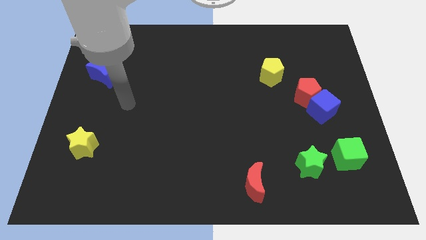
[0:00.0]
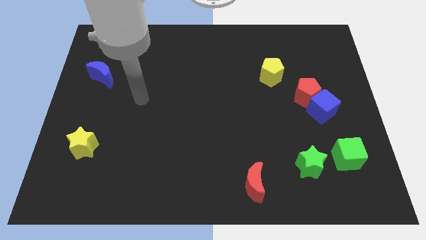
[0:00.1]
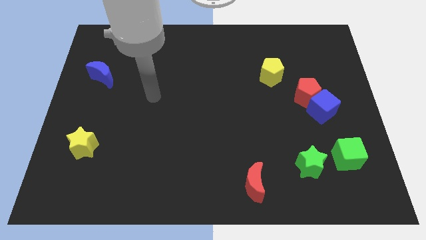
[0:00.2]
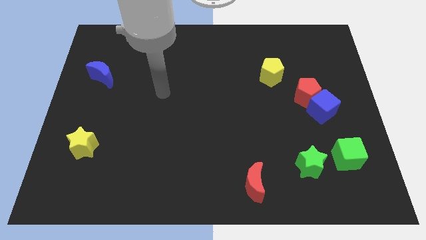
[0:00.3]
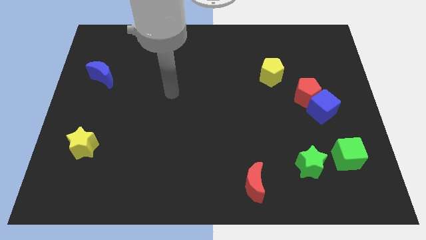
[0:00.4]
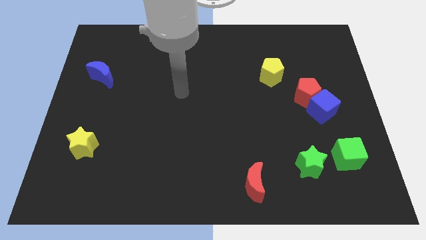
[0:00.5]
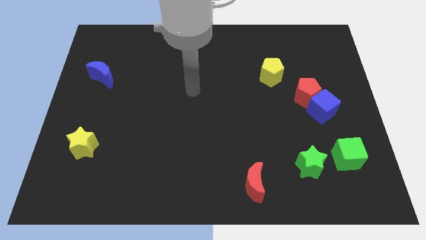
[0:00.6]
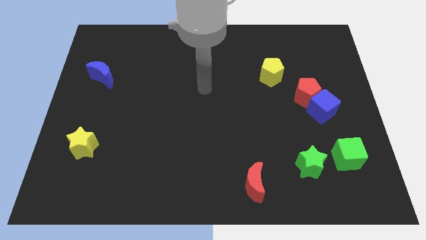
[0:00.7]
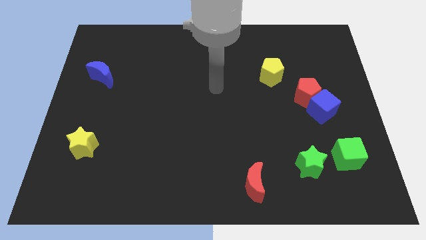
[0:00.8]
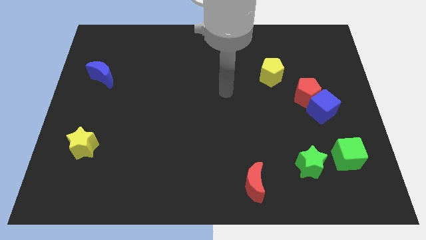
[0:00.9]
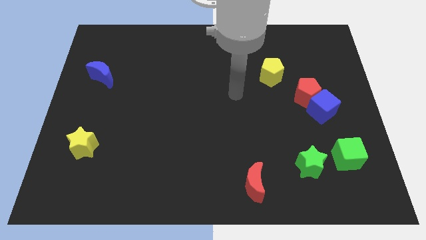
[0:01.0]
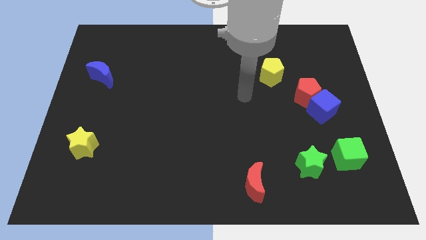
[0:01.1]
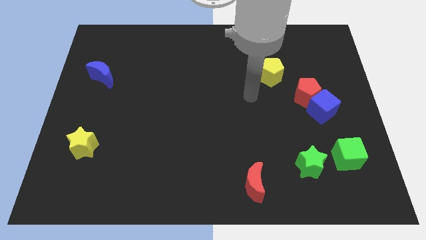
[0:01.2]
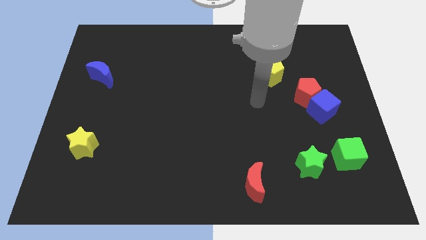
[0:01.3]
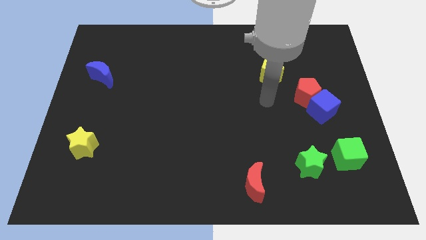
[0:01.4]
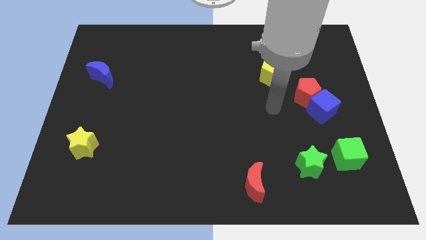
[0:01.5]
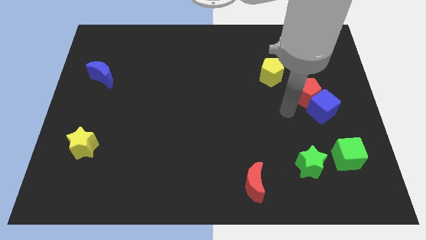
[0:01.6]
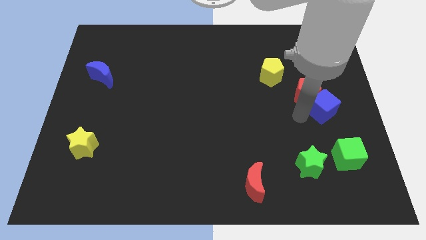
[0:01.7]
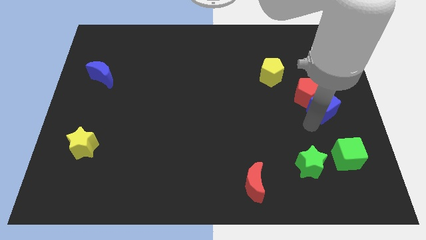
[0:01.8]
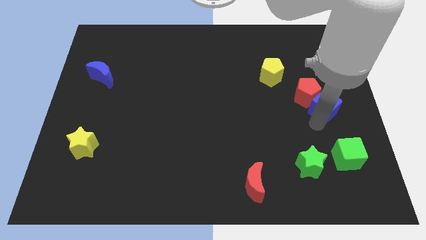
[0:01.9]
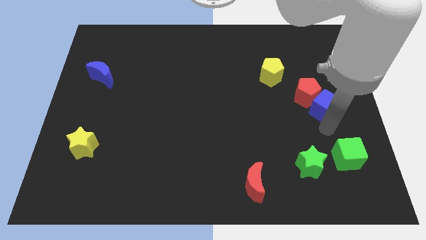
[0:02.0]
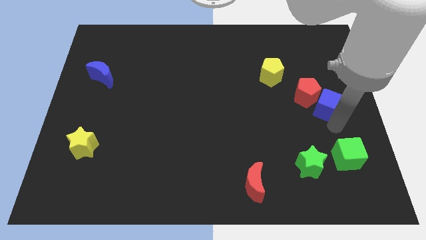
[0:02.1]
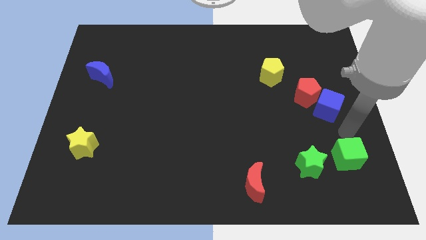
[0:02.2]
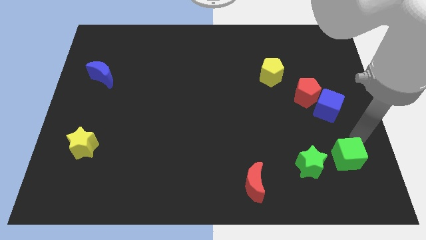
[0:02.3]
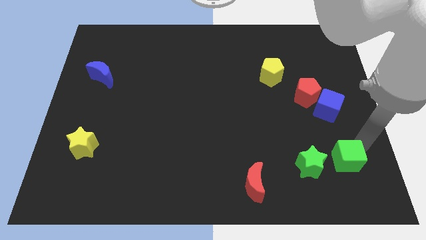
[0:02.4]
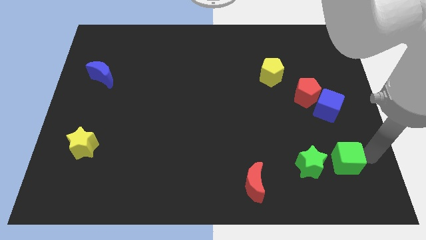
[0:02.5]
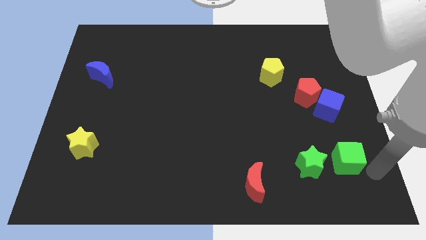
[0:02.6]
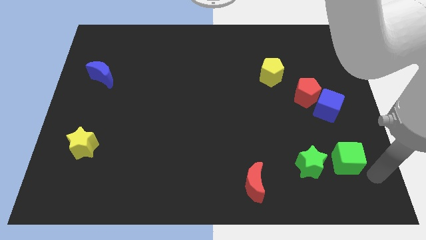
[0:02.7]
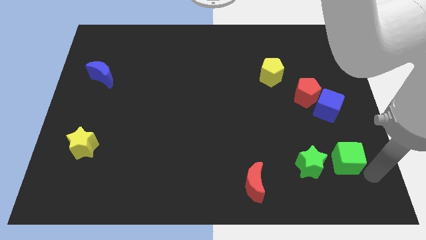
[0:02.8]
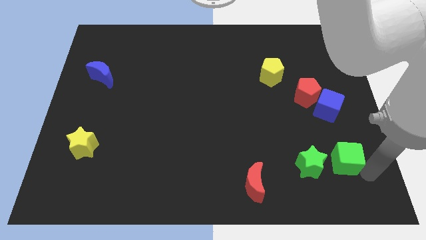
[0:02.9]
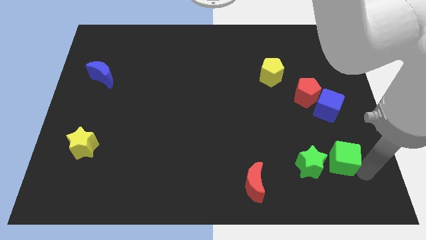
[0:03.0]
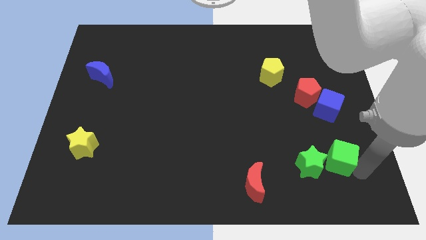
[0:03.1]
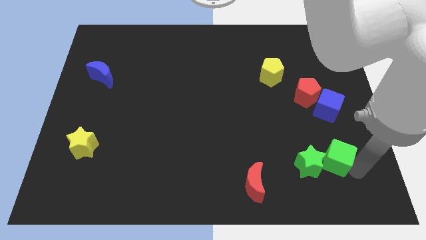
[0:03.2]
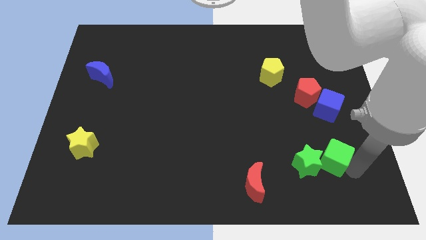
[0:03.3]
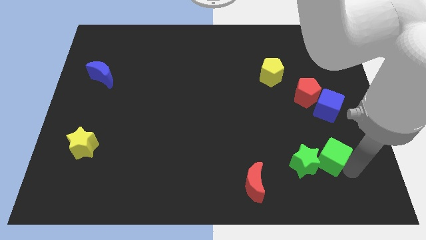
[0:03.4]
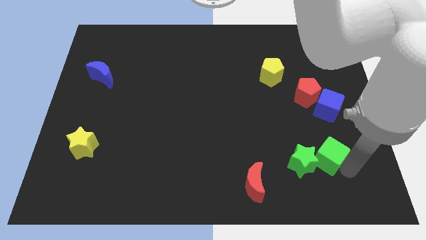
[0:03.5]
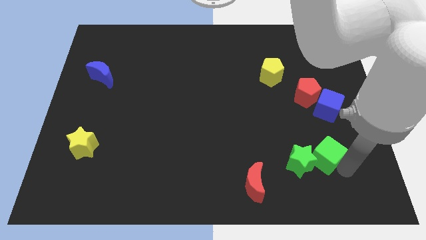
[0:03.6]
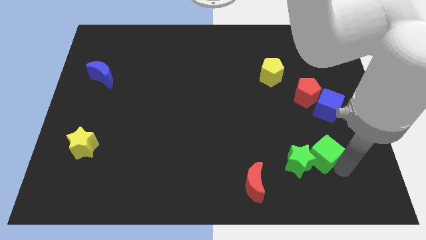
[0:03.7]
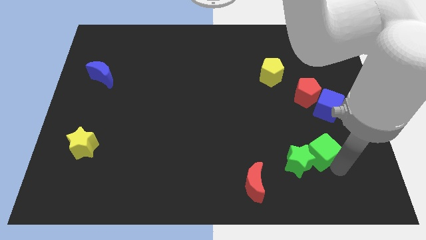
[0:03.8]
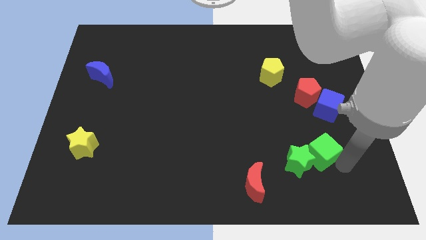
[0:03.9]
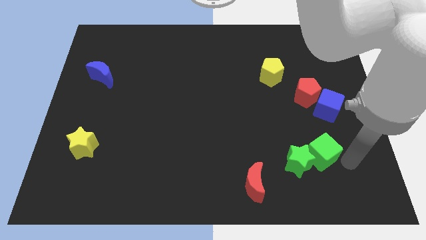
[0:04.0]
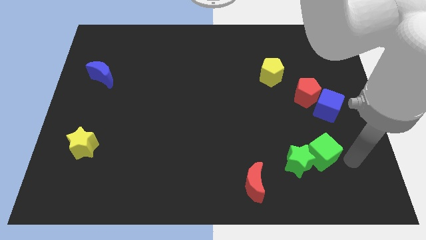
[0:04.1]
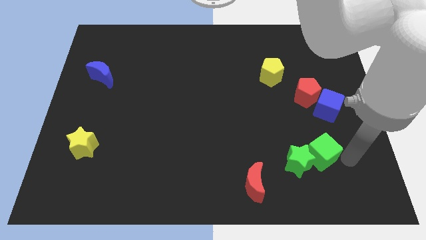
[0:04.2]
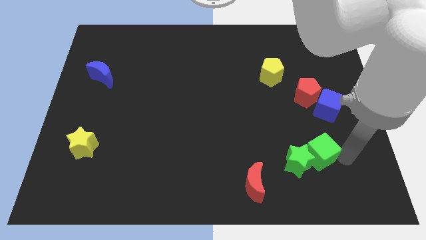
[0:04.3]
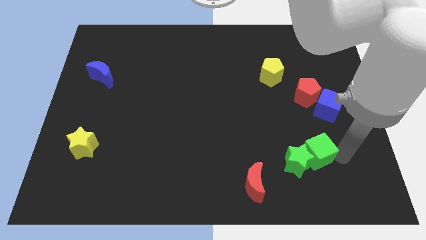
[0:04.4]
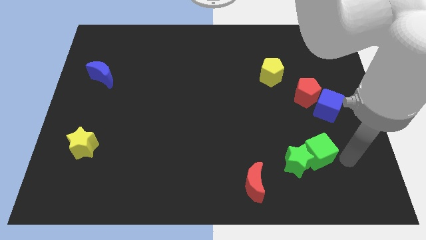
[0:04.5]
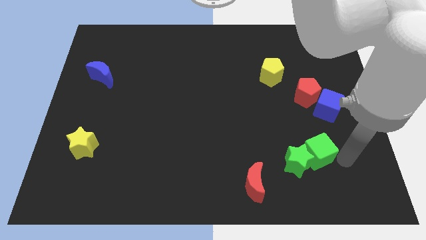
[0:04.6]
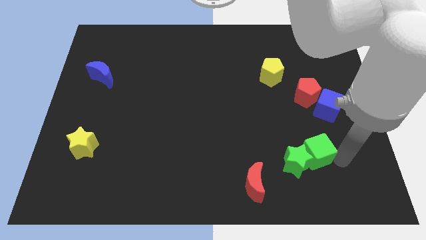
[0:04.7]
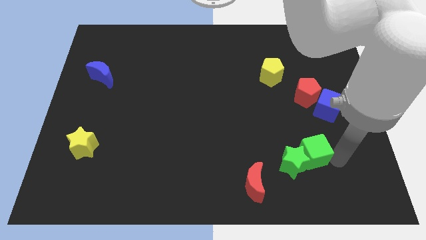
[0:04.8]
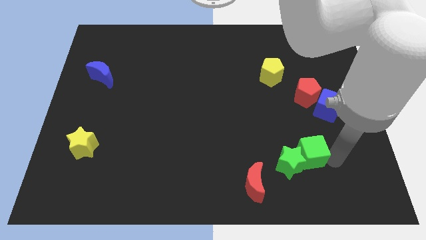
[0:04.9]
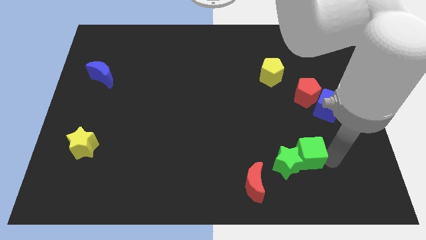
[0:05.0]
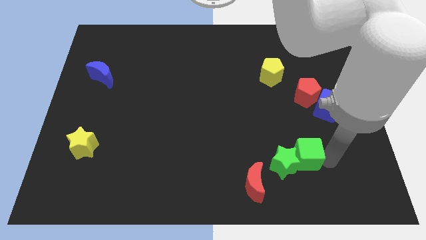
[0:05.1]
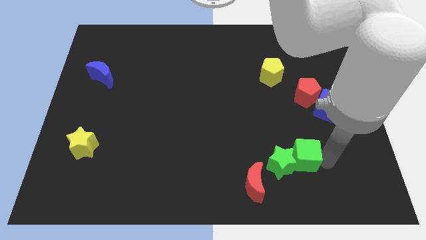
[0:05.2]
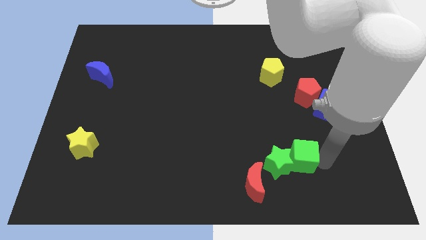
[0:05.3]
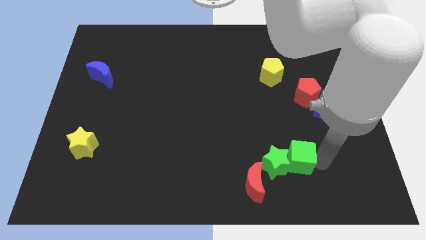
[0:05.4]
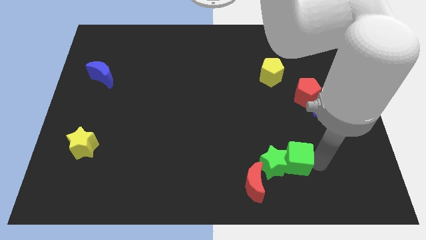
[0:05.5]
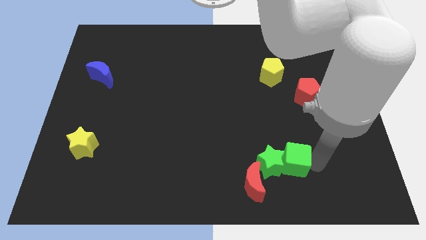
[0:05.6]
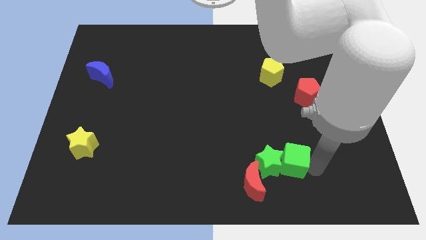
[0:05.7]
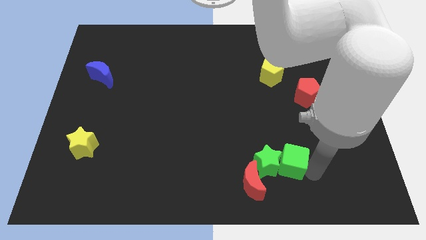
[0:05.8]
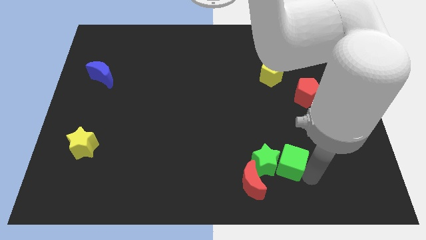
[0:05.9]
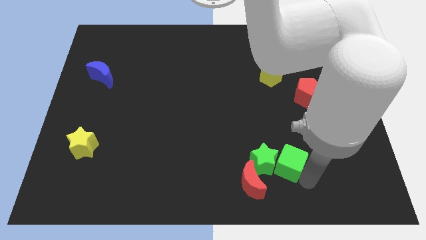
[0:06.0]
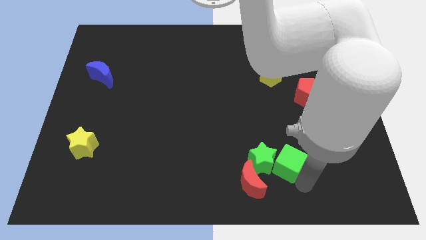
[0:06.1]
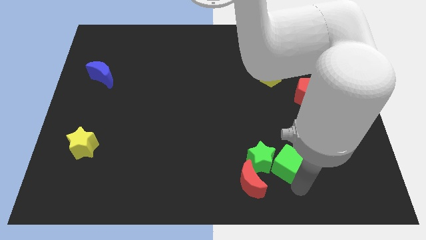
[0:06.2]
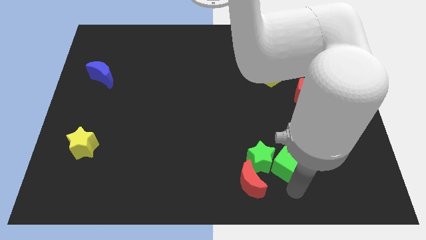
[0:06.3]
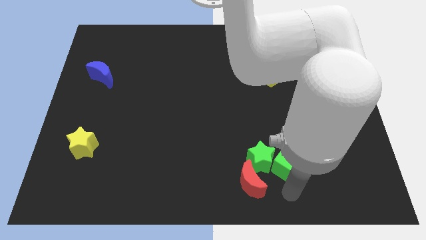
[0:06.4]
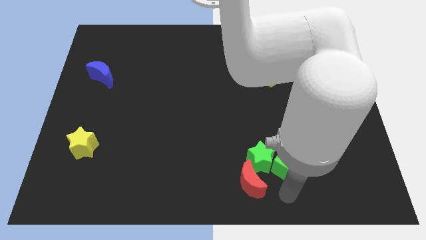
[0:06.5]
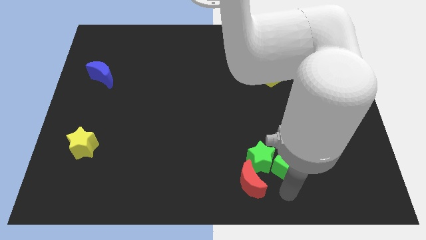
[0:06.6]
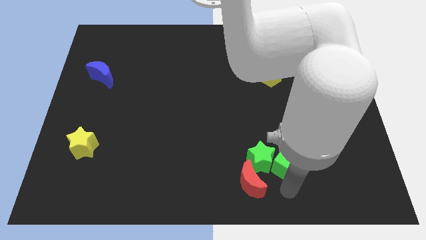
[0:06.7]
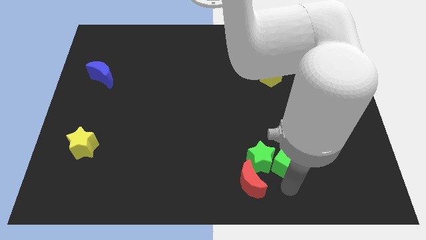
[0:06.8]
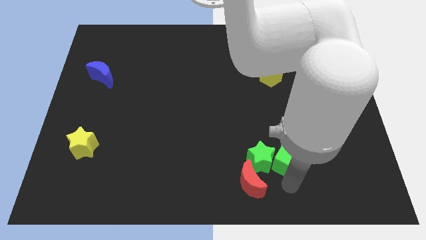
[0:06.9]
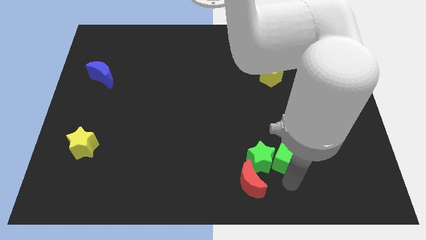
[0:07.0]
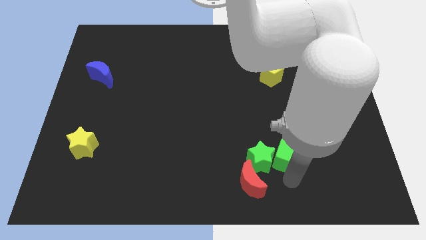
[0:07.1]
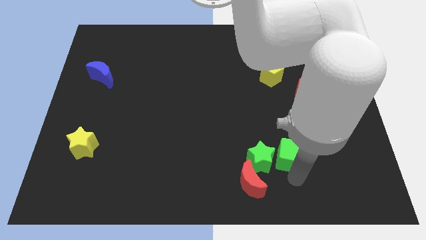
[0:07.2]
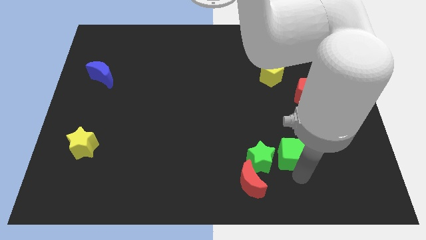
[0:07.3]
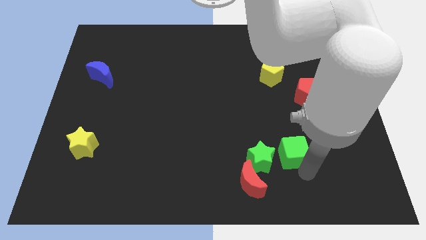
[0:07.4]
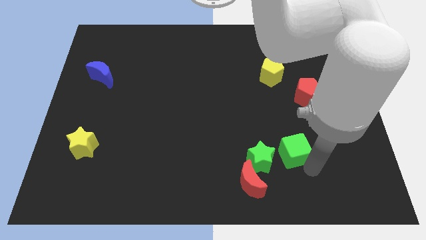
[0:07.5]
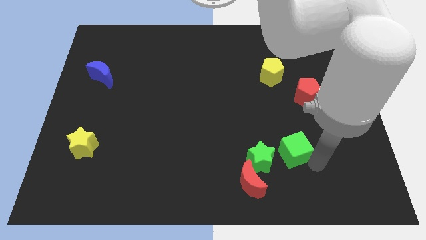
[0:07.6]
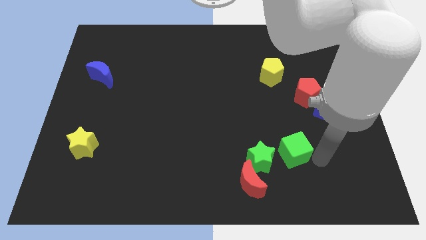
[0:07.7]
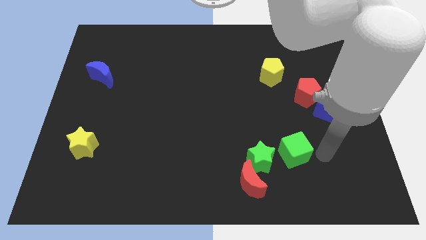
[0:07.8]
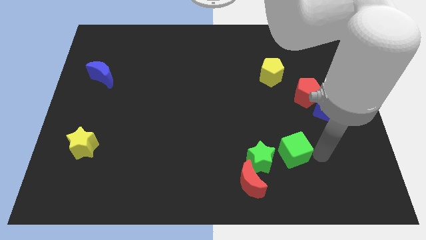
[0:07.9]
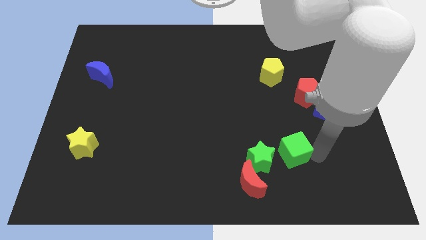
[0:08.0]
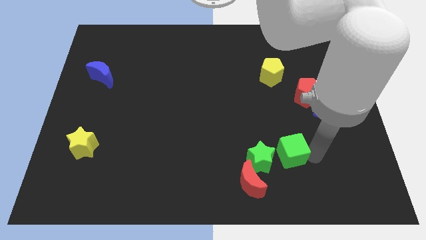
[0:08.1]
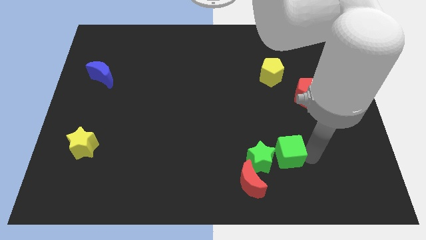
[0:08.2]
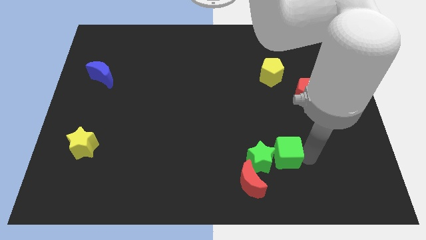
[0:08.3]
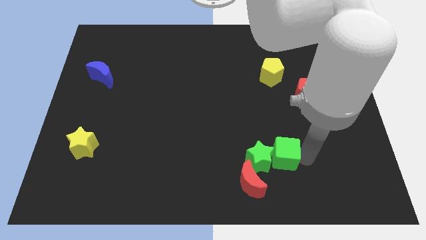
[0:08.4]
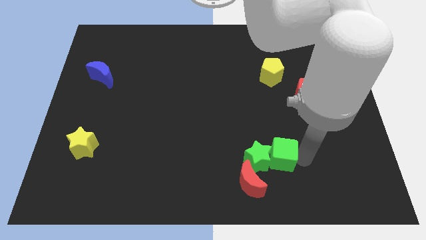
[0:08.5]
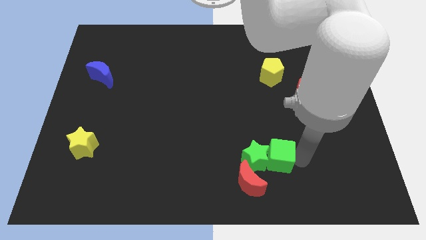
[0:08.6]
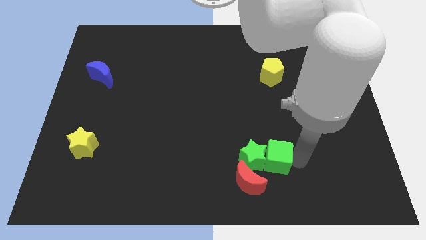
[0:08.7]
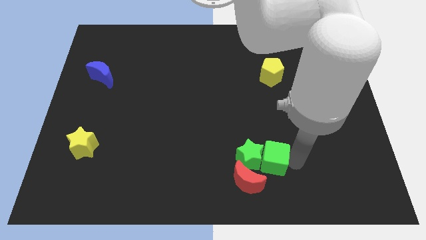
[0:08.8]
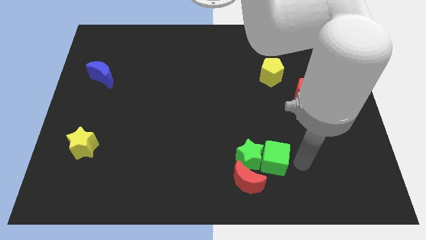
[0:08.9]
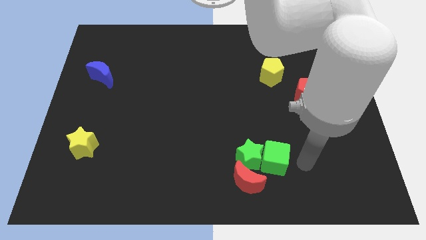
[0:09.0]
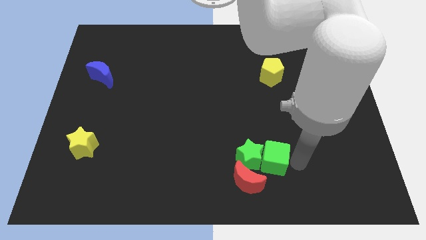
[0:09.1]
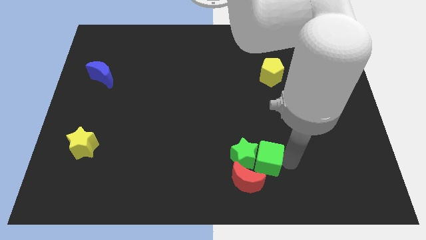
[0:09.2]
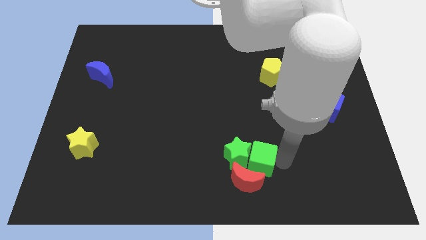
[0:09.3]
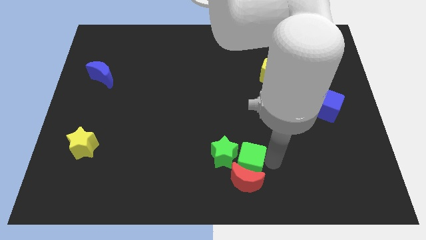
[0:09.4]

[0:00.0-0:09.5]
move the green cube left
